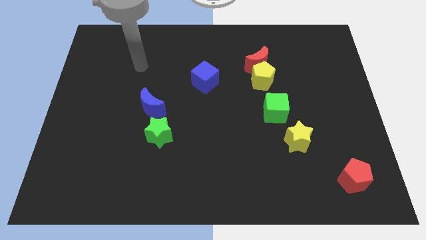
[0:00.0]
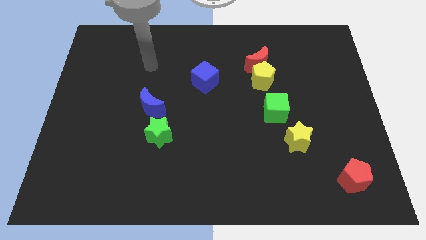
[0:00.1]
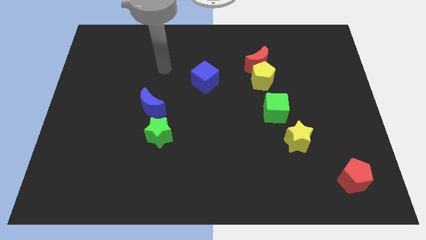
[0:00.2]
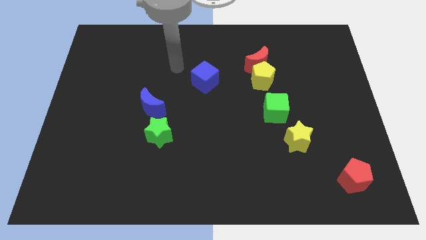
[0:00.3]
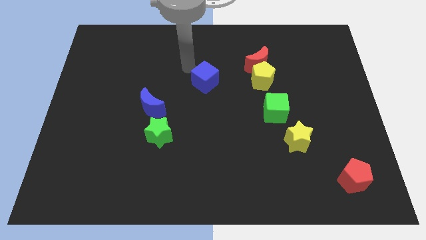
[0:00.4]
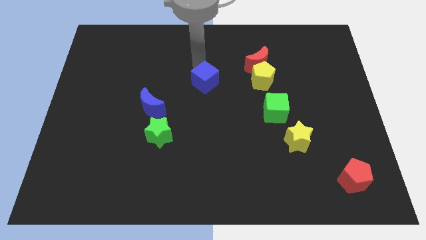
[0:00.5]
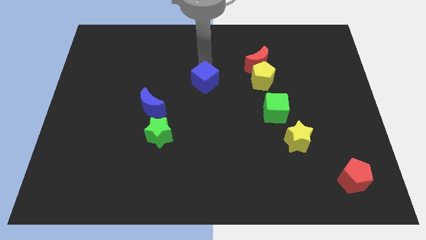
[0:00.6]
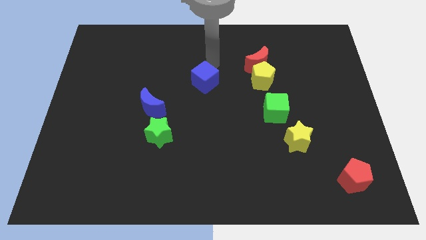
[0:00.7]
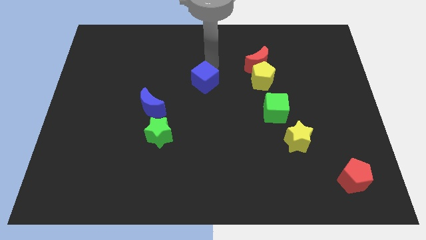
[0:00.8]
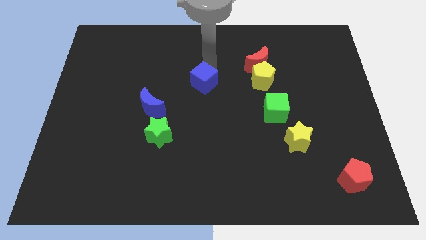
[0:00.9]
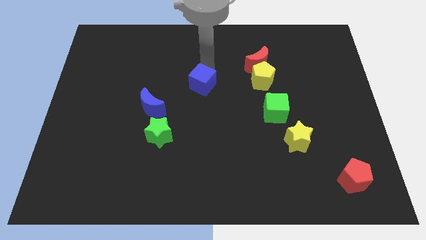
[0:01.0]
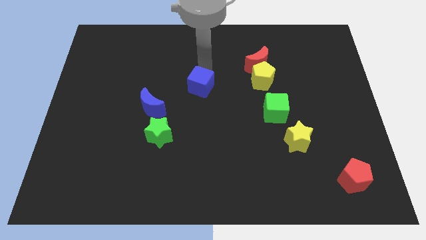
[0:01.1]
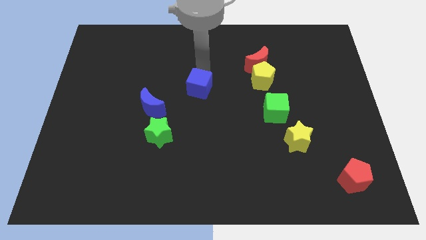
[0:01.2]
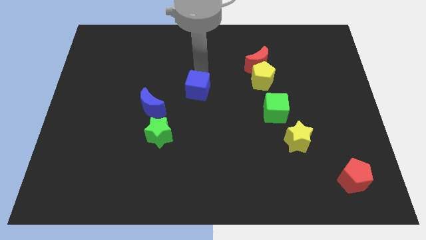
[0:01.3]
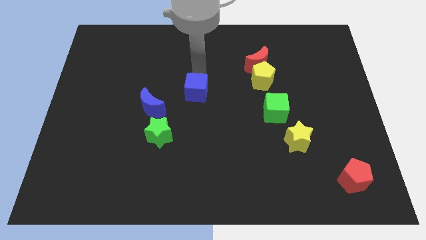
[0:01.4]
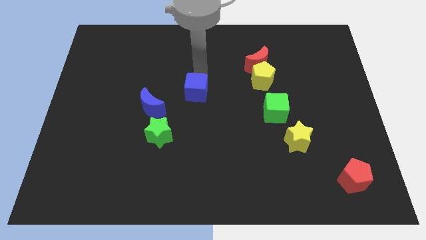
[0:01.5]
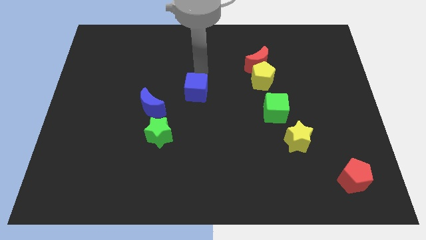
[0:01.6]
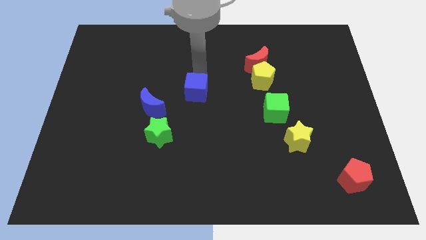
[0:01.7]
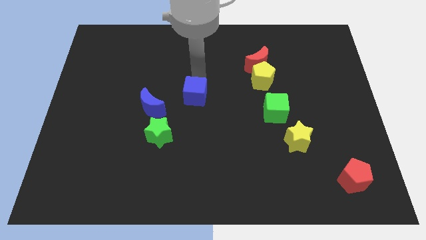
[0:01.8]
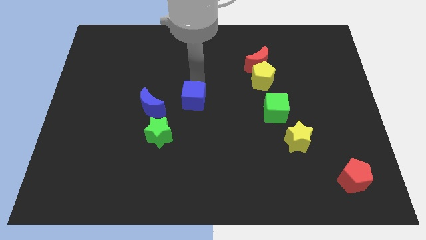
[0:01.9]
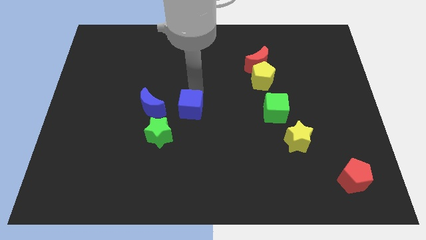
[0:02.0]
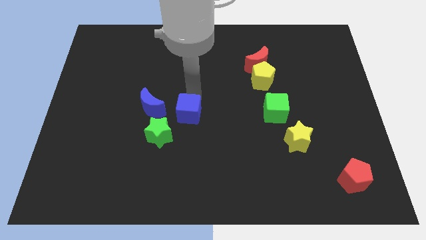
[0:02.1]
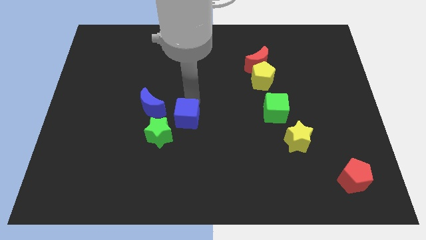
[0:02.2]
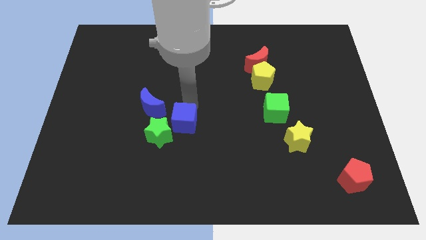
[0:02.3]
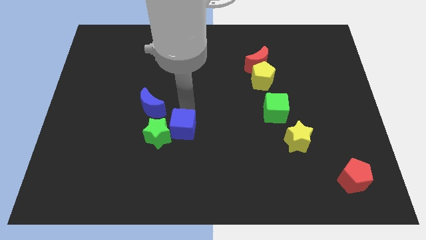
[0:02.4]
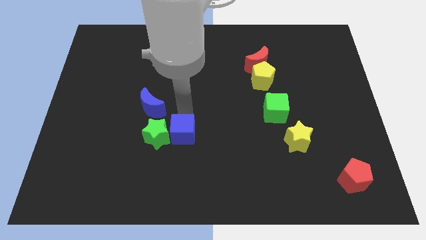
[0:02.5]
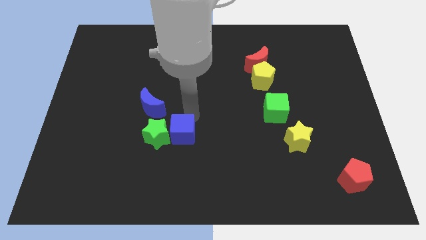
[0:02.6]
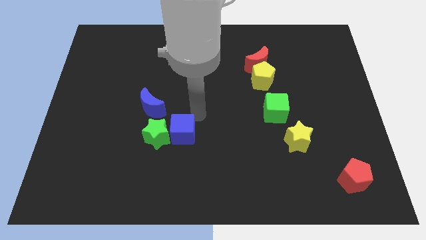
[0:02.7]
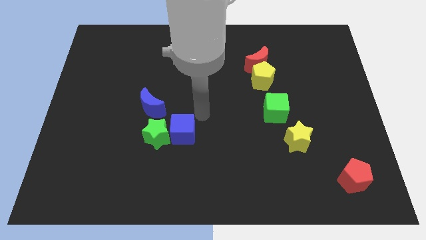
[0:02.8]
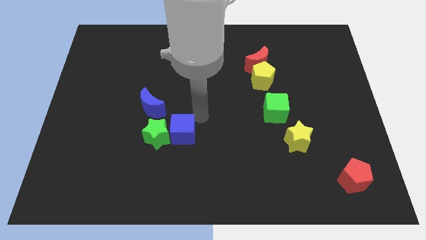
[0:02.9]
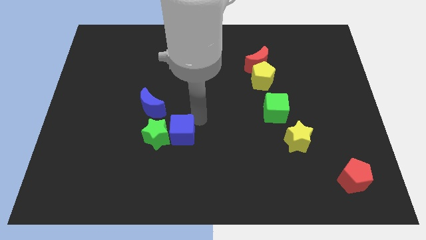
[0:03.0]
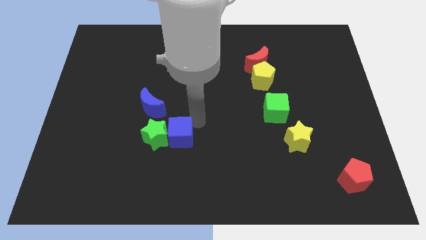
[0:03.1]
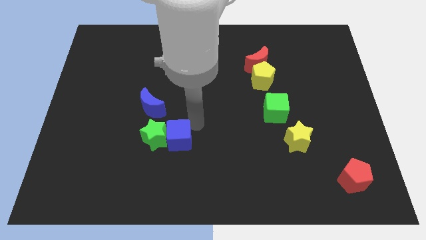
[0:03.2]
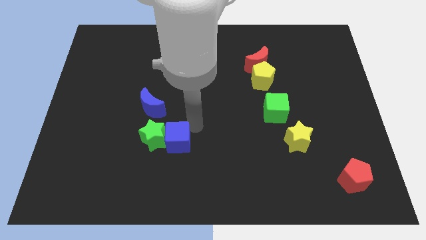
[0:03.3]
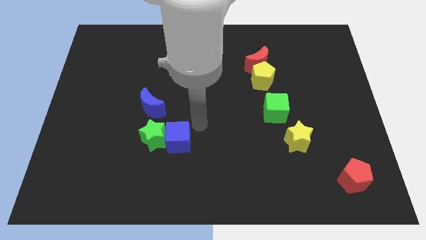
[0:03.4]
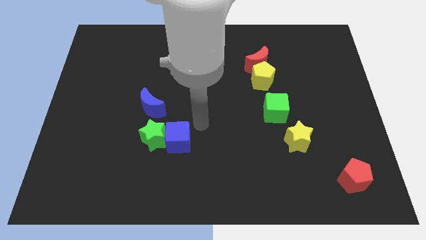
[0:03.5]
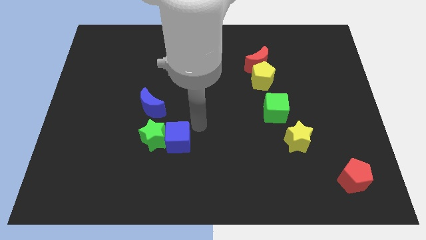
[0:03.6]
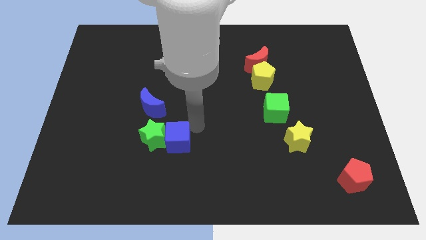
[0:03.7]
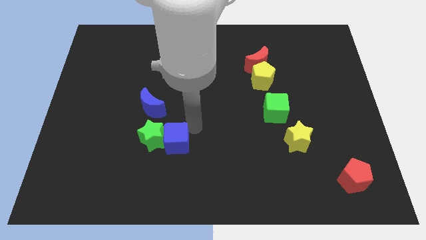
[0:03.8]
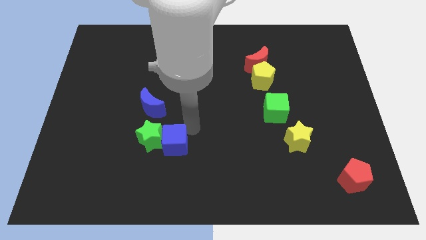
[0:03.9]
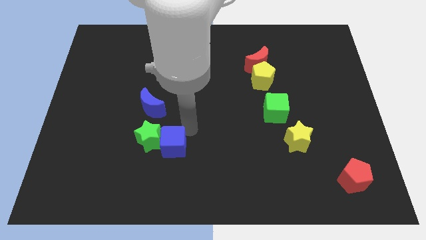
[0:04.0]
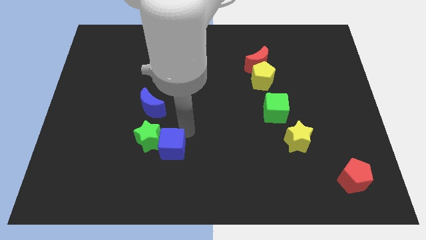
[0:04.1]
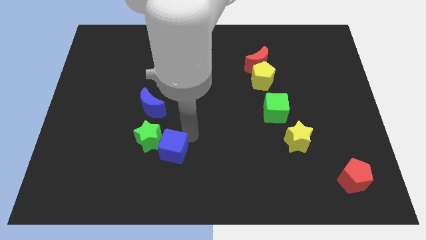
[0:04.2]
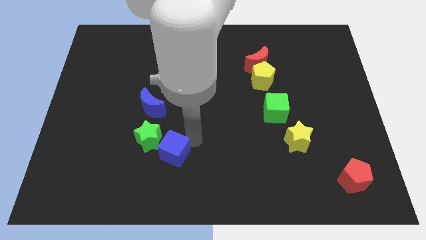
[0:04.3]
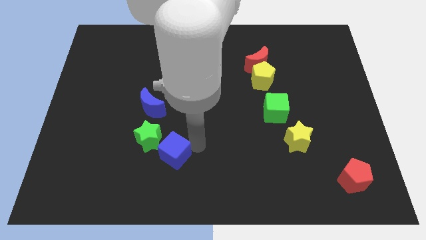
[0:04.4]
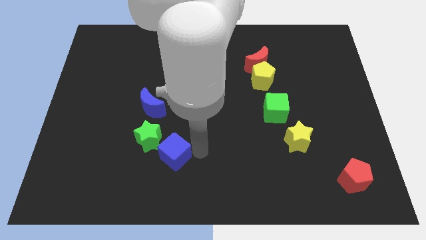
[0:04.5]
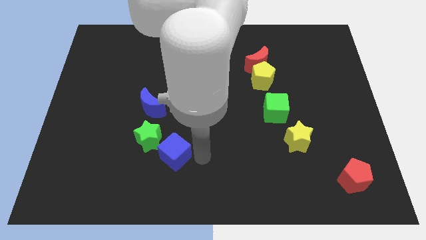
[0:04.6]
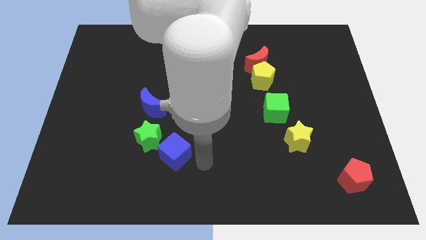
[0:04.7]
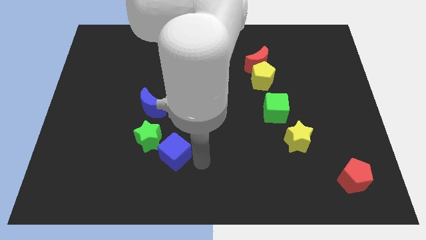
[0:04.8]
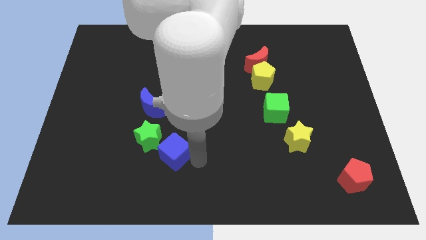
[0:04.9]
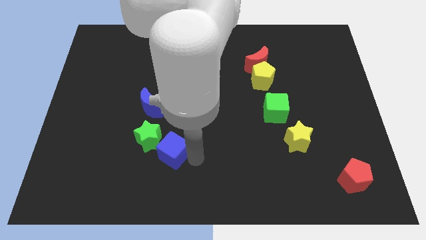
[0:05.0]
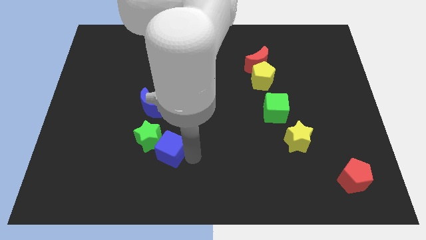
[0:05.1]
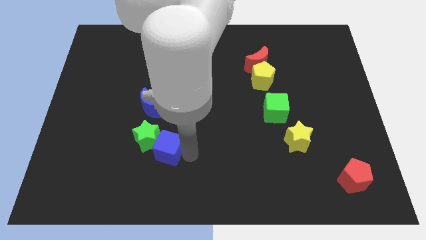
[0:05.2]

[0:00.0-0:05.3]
put the blue cube to the bottom side of the blue moon

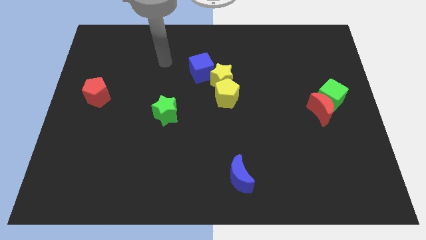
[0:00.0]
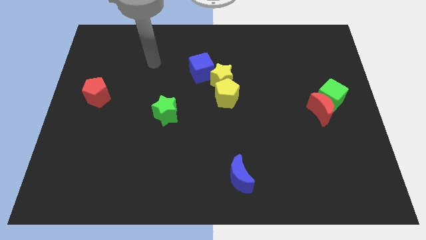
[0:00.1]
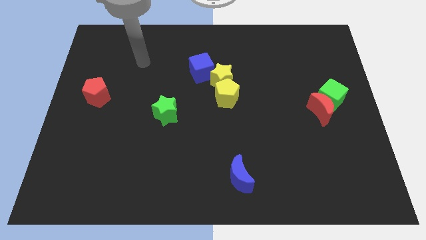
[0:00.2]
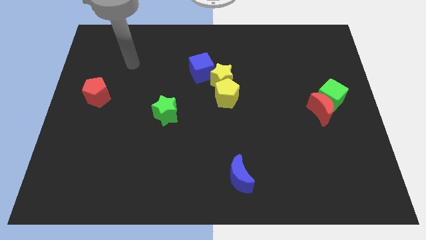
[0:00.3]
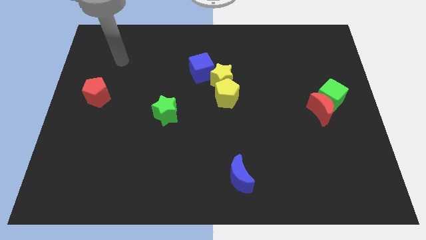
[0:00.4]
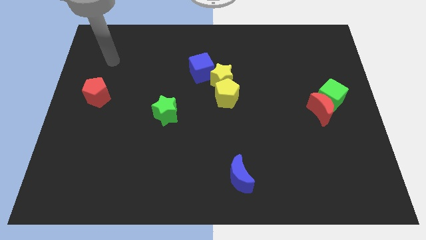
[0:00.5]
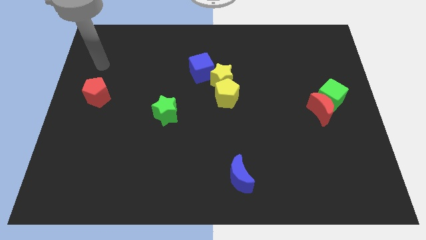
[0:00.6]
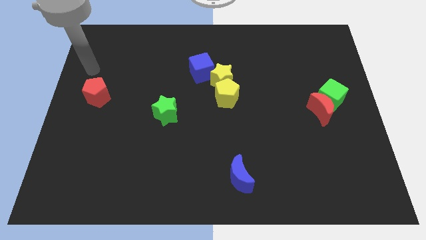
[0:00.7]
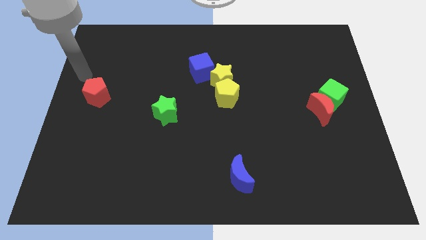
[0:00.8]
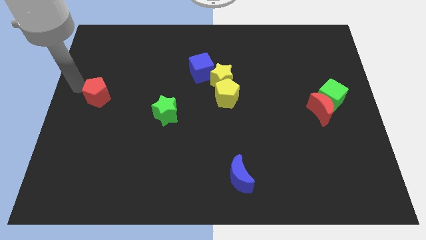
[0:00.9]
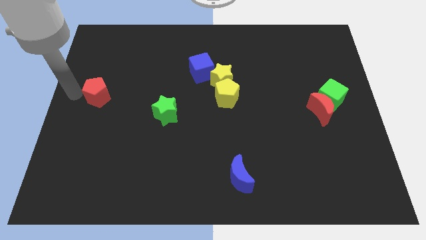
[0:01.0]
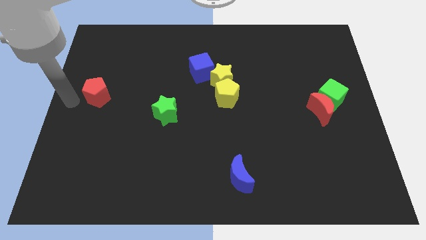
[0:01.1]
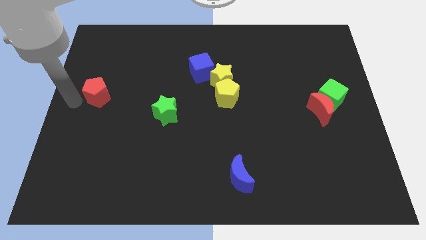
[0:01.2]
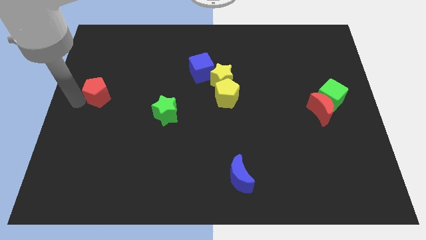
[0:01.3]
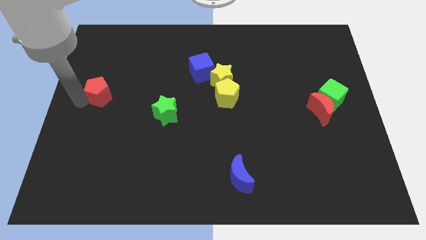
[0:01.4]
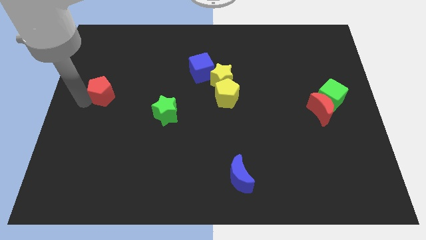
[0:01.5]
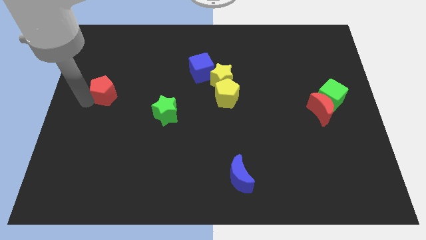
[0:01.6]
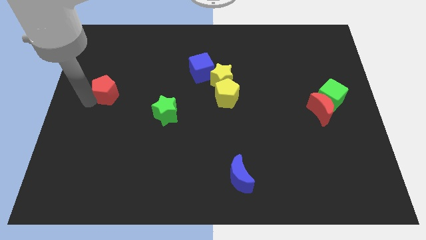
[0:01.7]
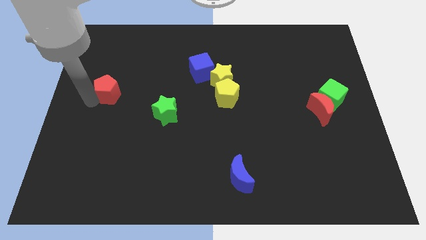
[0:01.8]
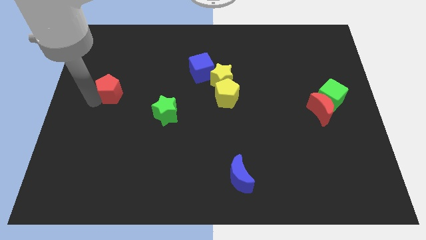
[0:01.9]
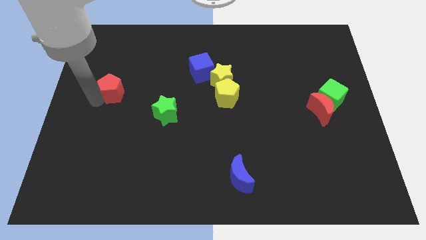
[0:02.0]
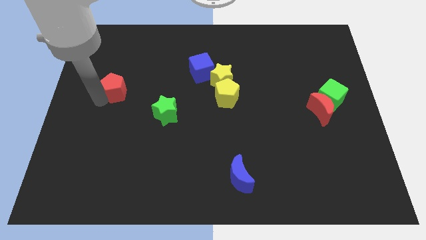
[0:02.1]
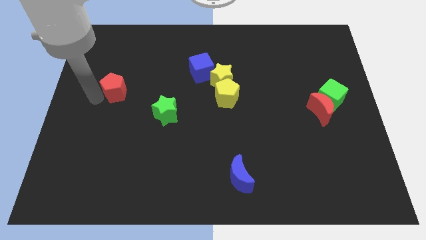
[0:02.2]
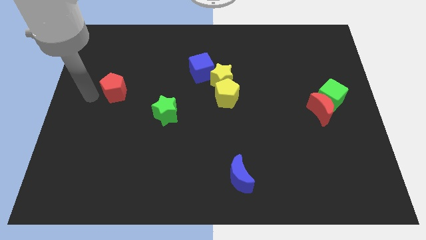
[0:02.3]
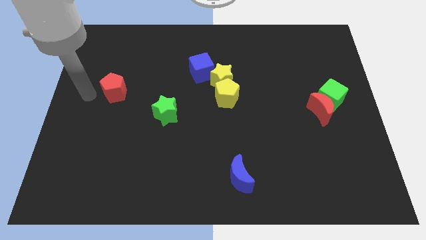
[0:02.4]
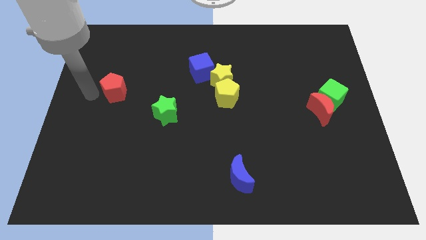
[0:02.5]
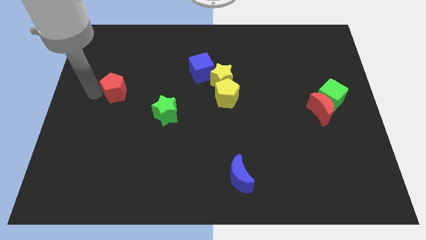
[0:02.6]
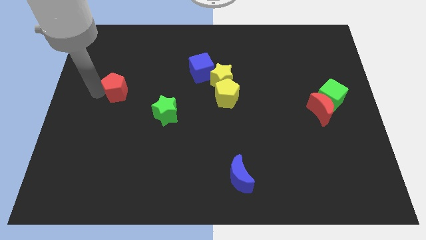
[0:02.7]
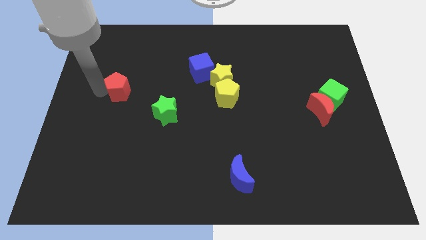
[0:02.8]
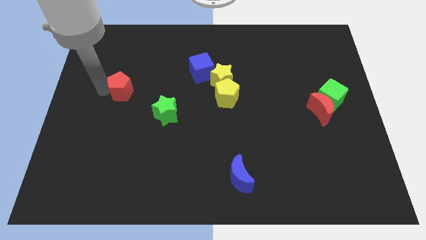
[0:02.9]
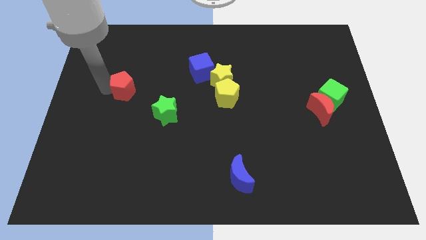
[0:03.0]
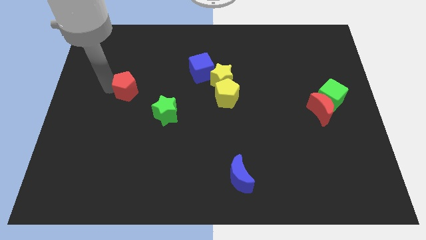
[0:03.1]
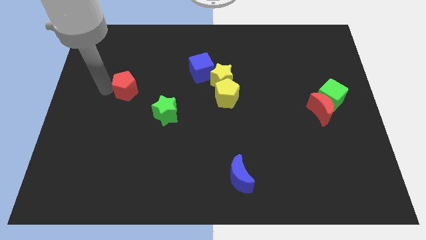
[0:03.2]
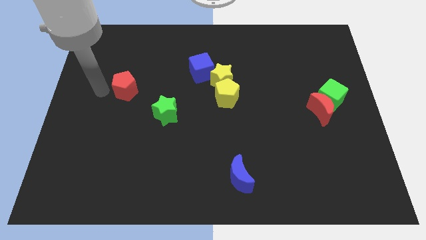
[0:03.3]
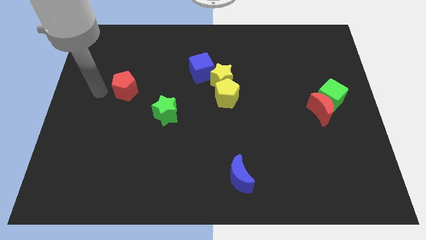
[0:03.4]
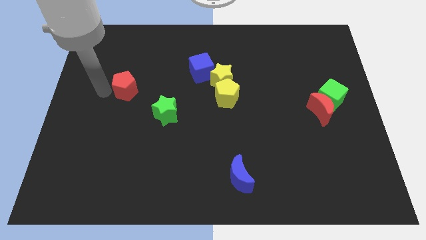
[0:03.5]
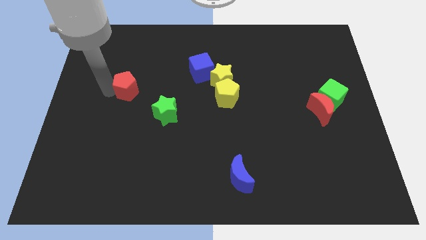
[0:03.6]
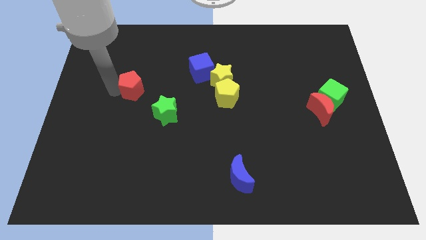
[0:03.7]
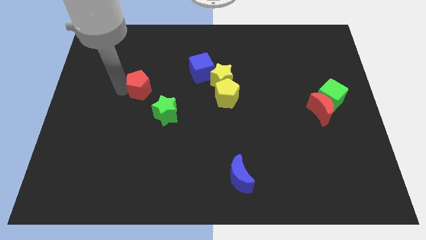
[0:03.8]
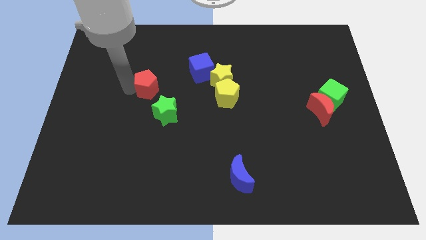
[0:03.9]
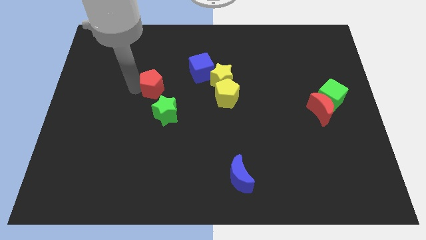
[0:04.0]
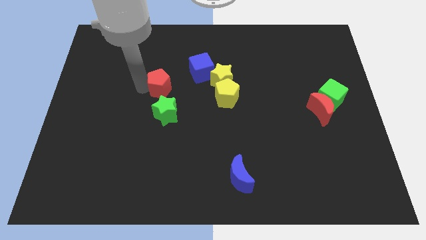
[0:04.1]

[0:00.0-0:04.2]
push the red pentagon diagonally down and to the left of the blue cube
